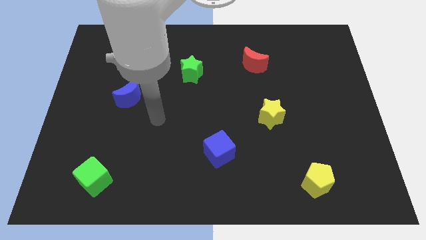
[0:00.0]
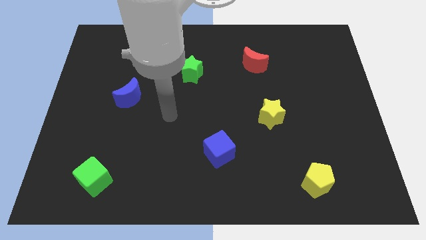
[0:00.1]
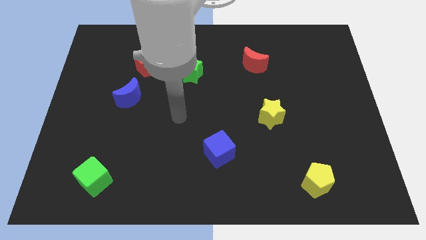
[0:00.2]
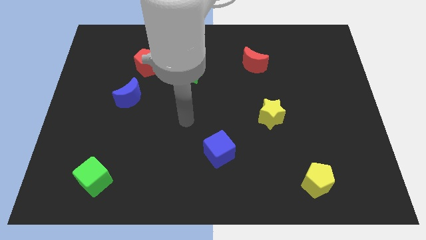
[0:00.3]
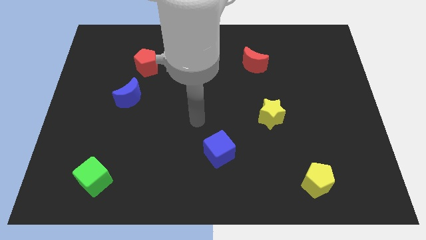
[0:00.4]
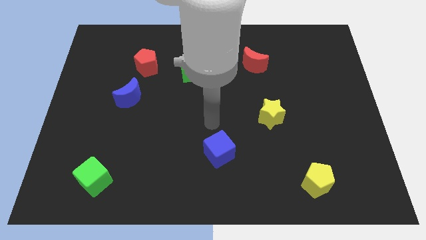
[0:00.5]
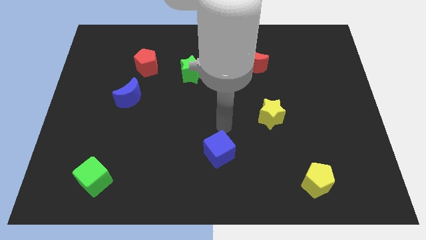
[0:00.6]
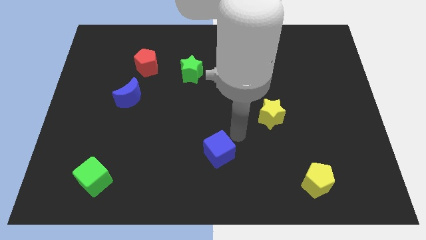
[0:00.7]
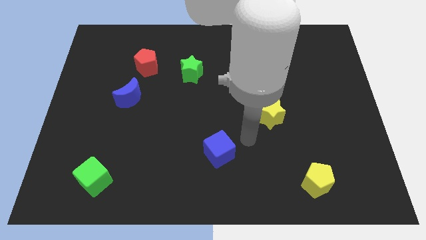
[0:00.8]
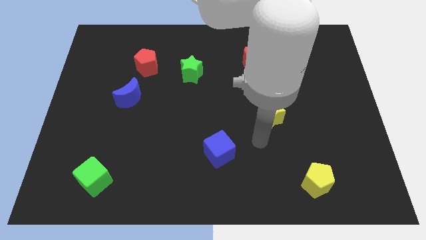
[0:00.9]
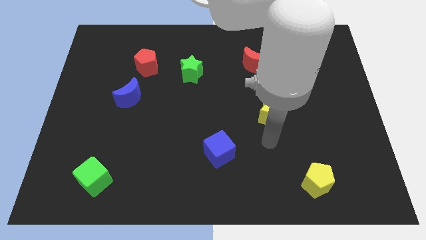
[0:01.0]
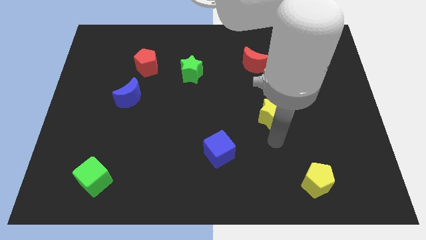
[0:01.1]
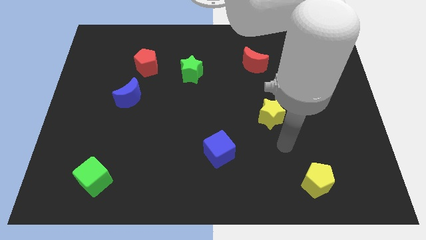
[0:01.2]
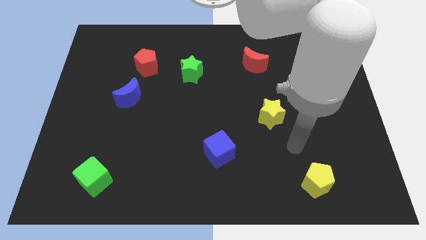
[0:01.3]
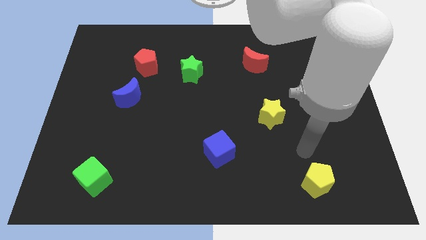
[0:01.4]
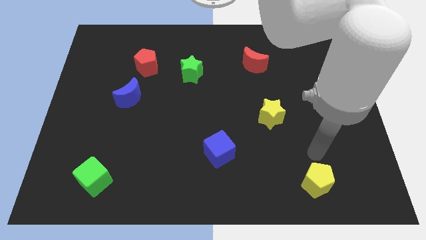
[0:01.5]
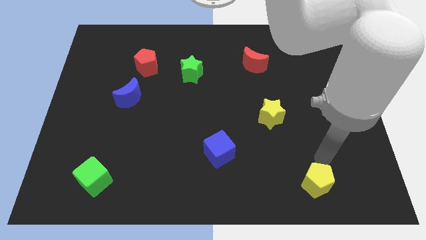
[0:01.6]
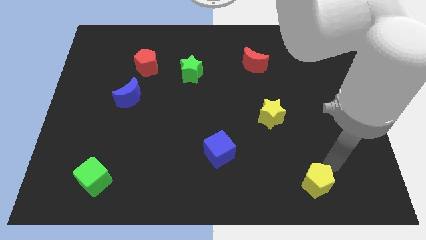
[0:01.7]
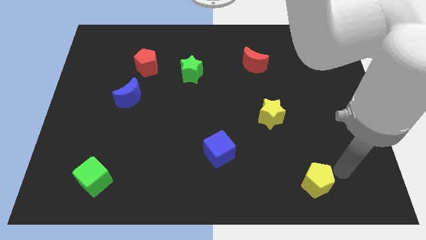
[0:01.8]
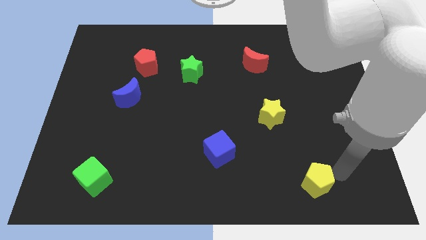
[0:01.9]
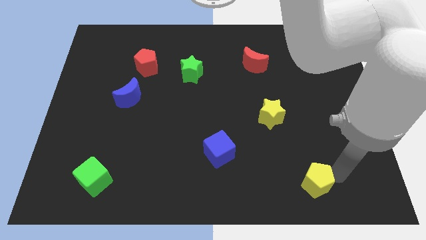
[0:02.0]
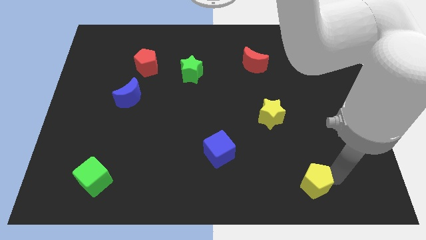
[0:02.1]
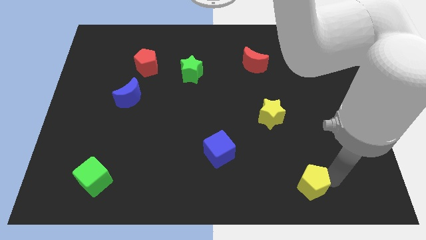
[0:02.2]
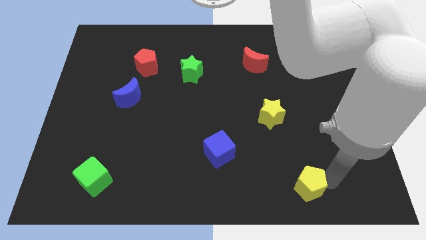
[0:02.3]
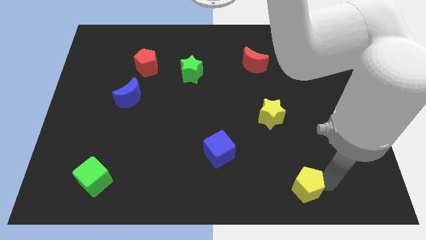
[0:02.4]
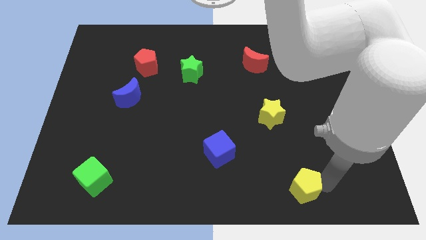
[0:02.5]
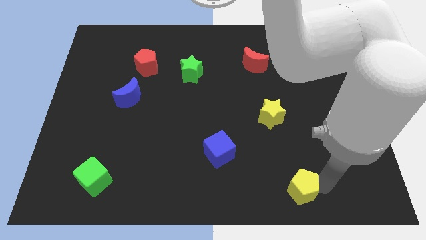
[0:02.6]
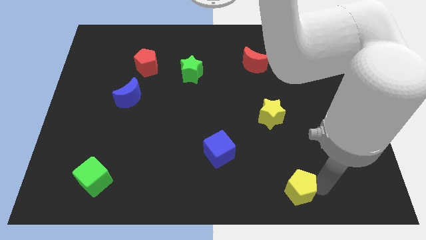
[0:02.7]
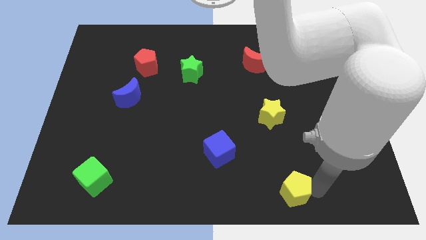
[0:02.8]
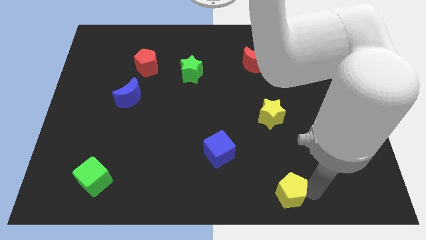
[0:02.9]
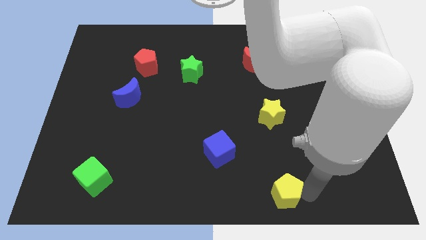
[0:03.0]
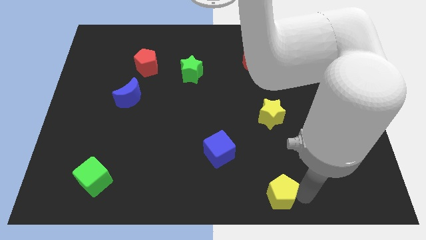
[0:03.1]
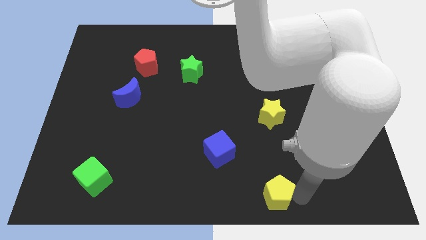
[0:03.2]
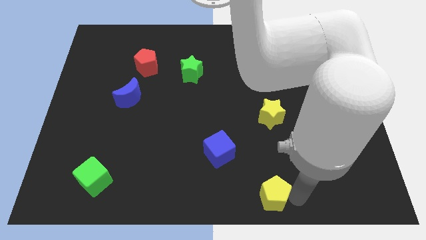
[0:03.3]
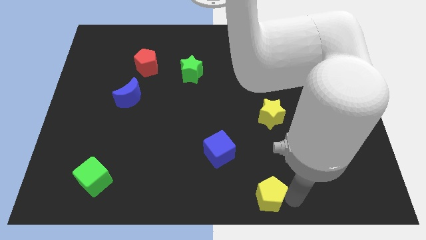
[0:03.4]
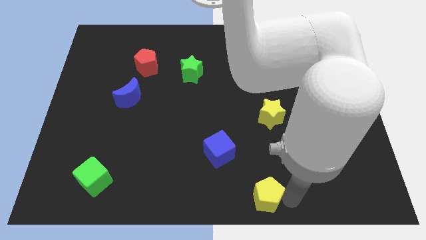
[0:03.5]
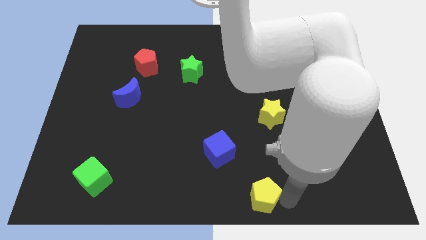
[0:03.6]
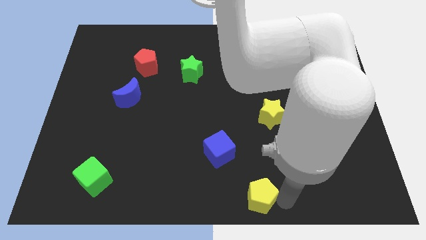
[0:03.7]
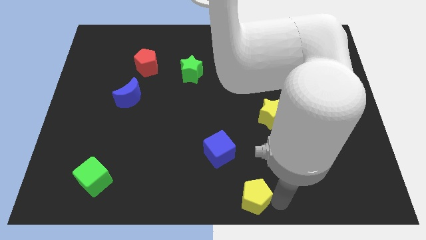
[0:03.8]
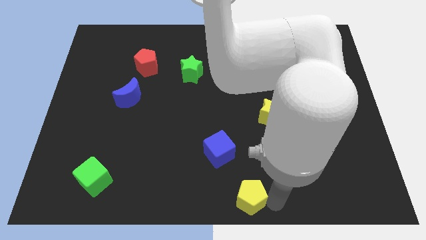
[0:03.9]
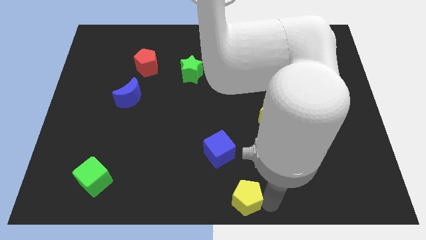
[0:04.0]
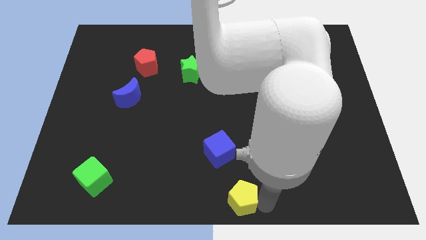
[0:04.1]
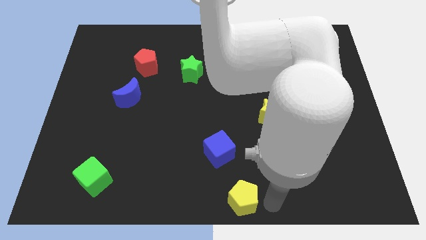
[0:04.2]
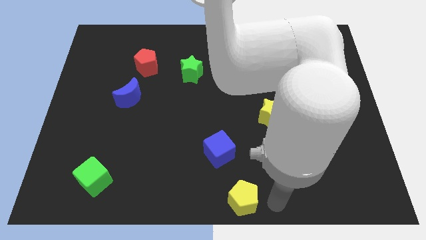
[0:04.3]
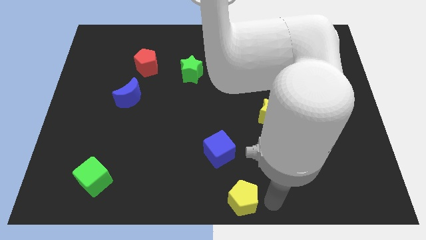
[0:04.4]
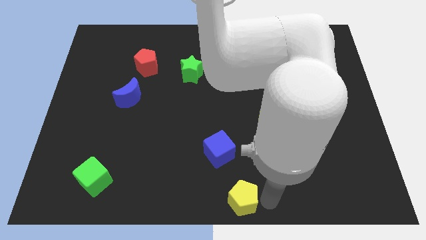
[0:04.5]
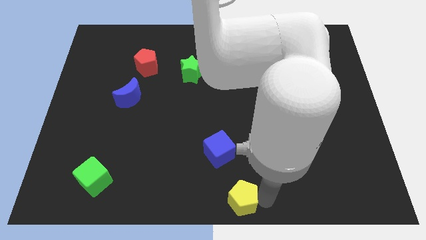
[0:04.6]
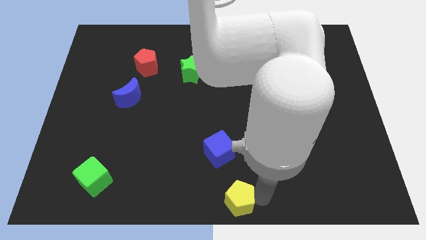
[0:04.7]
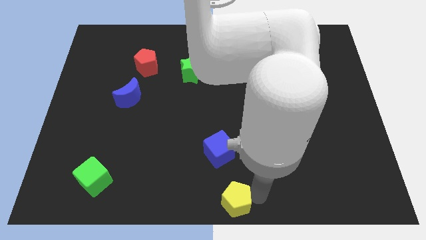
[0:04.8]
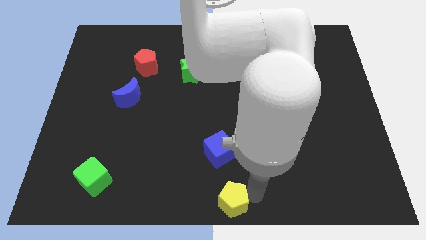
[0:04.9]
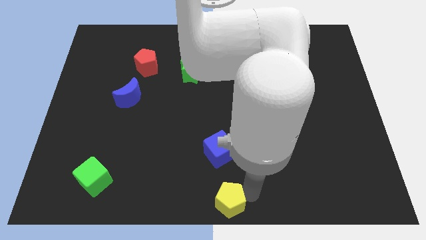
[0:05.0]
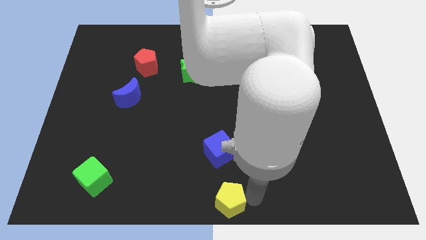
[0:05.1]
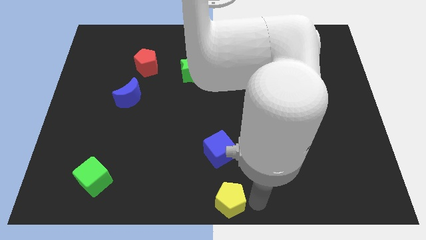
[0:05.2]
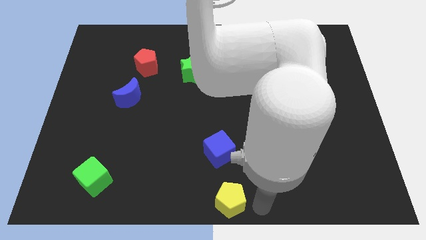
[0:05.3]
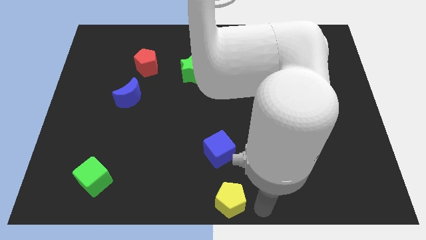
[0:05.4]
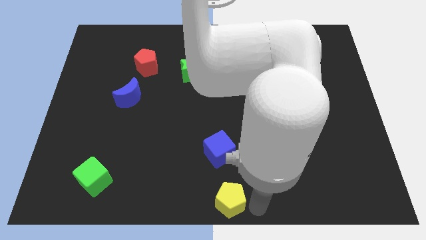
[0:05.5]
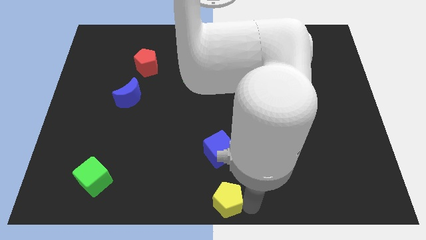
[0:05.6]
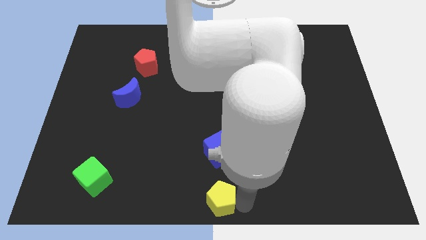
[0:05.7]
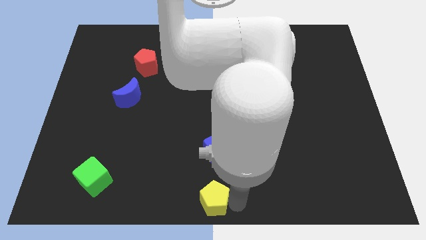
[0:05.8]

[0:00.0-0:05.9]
push the yellow pentagon left

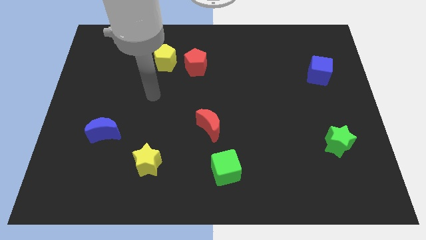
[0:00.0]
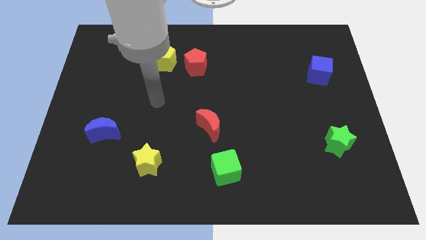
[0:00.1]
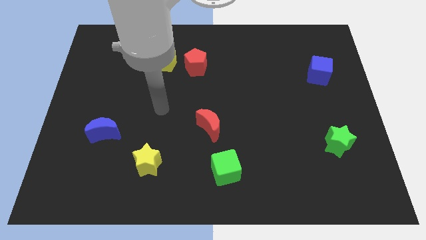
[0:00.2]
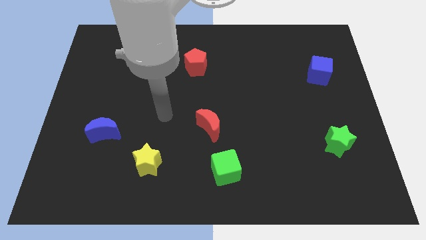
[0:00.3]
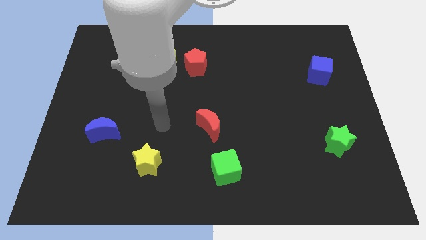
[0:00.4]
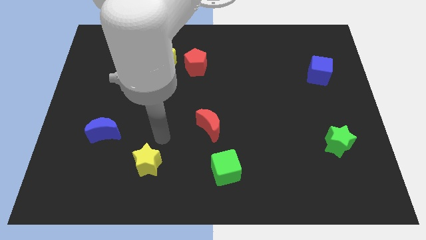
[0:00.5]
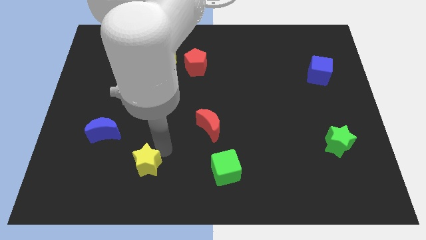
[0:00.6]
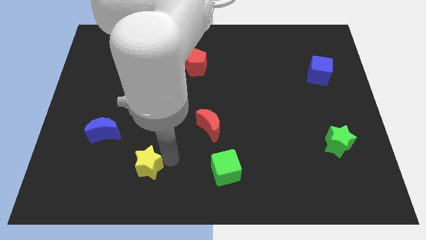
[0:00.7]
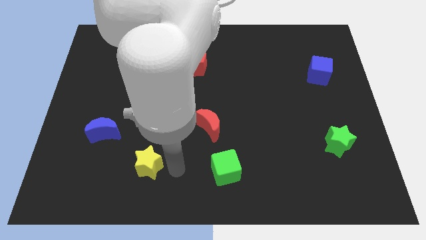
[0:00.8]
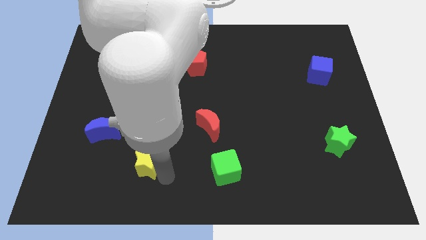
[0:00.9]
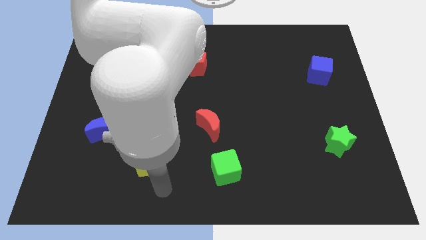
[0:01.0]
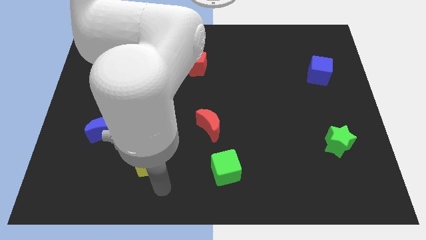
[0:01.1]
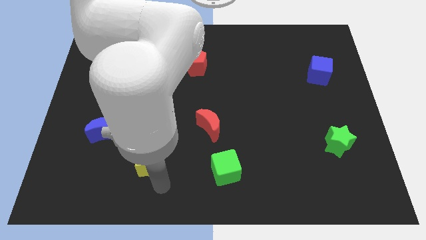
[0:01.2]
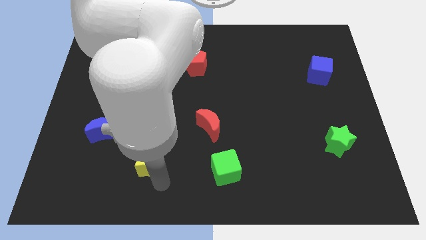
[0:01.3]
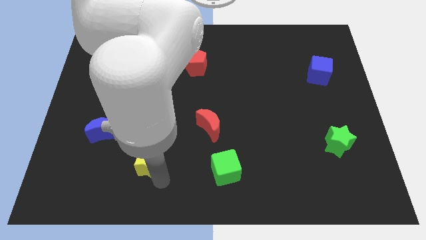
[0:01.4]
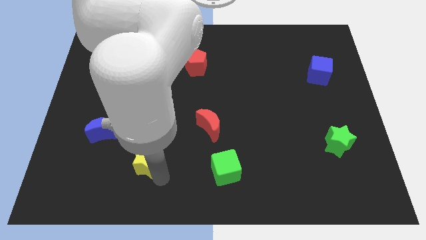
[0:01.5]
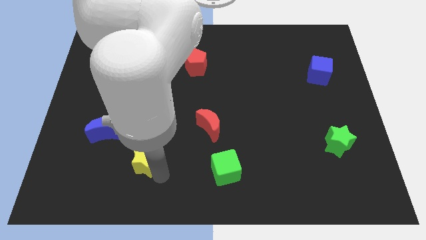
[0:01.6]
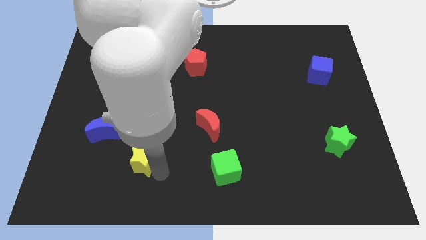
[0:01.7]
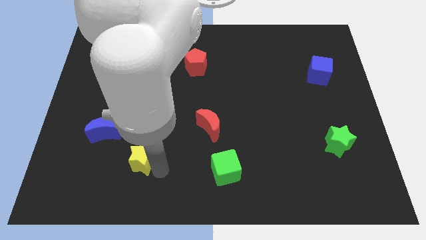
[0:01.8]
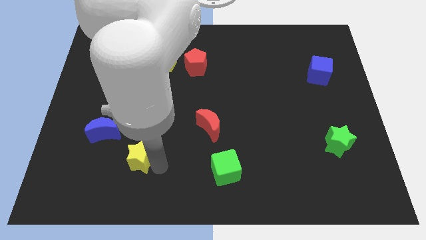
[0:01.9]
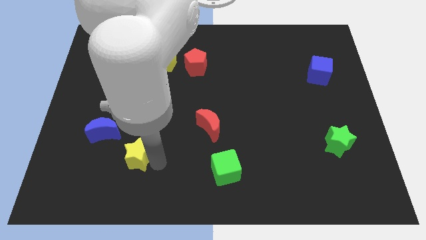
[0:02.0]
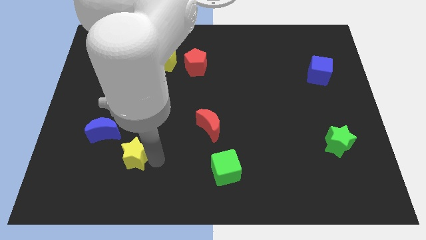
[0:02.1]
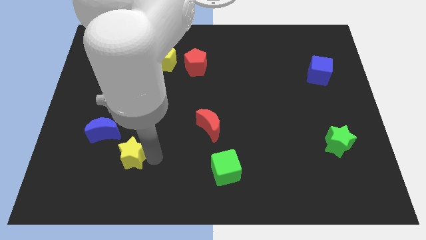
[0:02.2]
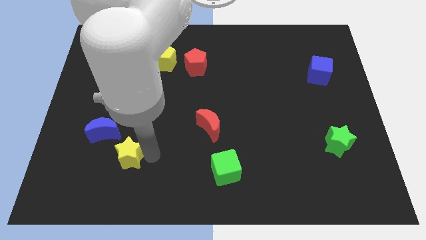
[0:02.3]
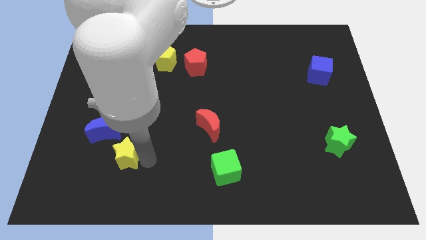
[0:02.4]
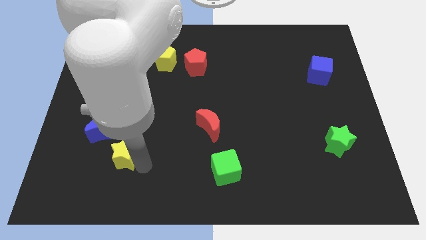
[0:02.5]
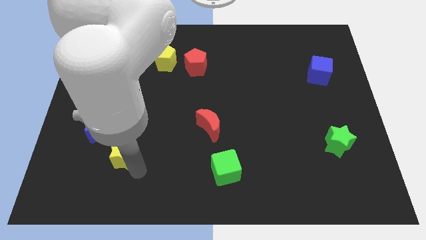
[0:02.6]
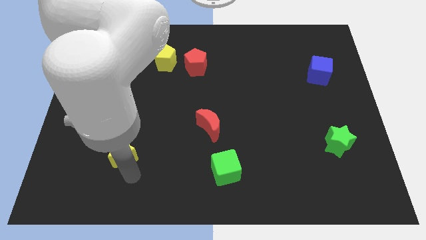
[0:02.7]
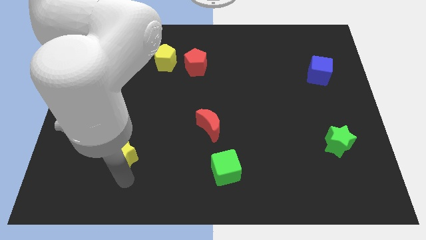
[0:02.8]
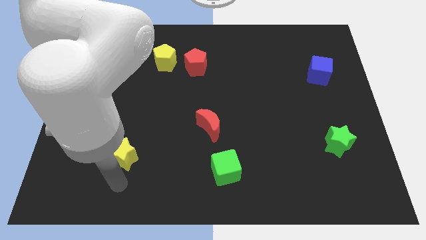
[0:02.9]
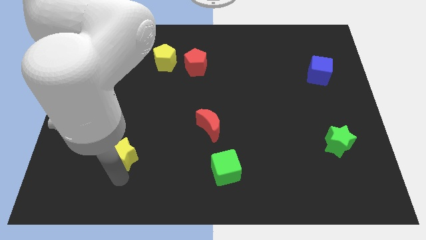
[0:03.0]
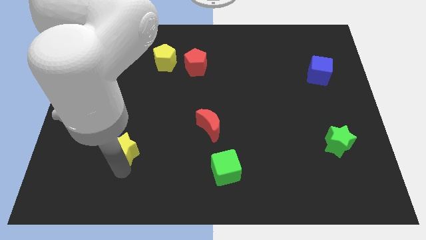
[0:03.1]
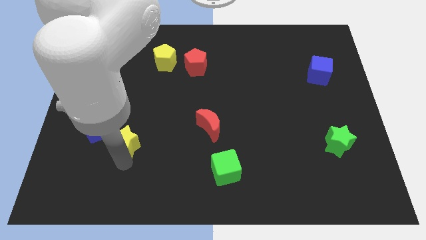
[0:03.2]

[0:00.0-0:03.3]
push the yellow star diagonally upwards and left a bit
